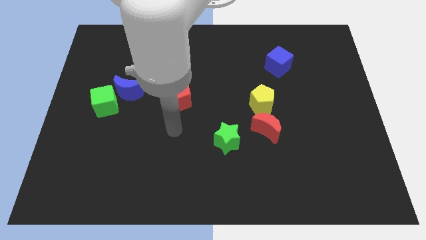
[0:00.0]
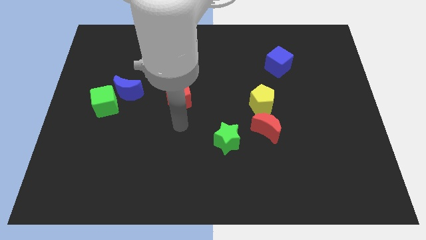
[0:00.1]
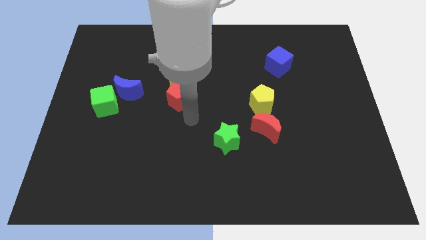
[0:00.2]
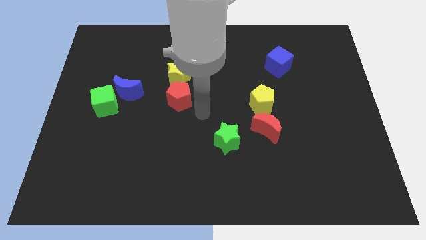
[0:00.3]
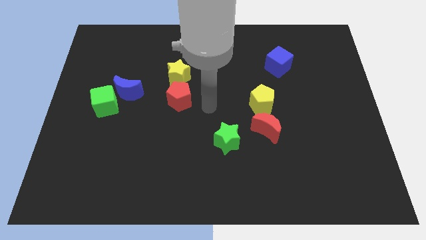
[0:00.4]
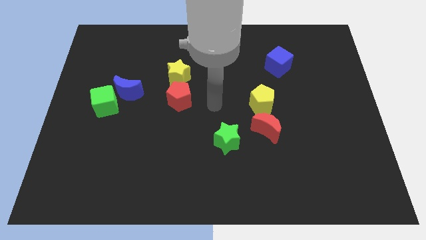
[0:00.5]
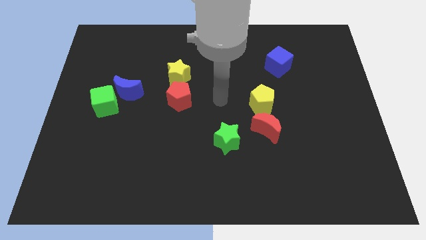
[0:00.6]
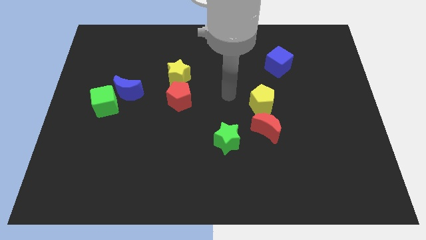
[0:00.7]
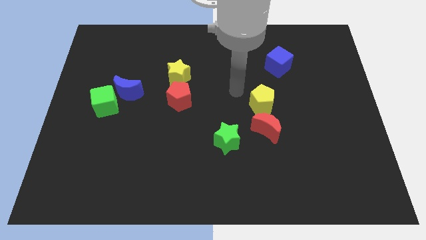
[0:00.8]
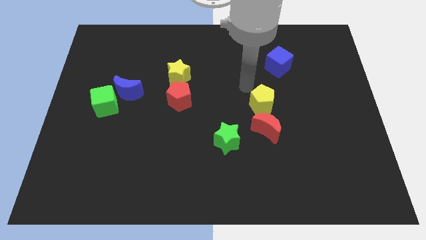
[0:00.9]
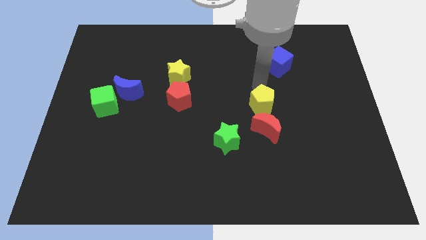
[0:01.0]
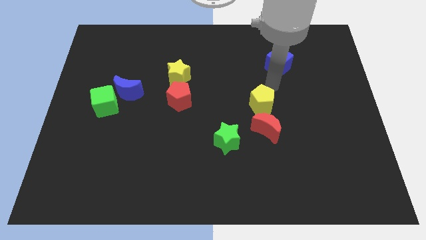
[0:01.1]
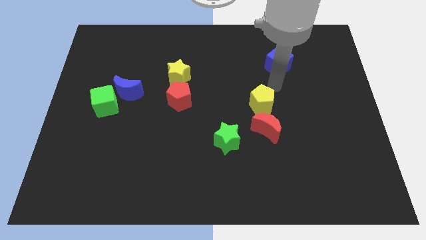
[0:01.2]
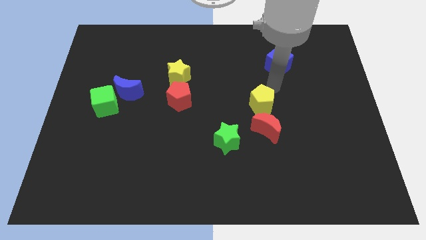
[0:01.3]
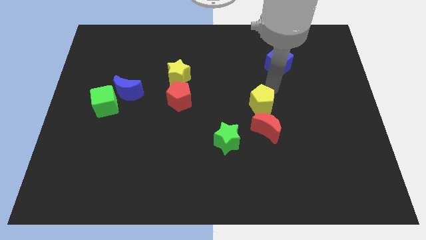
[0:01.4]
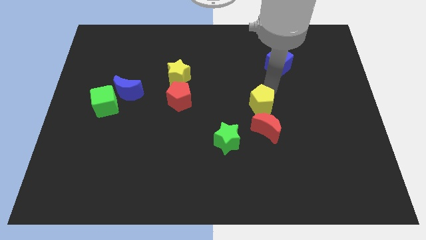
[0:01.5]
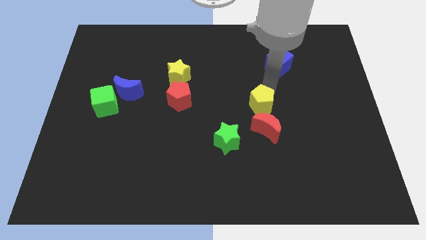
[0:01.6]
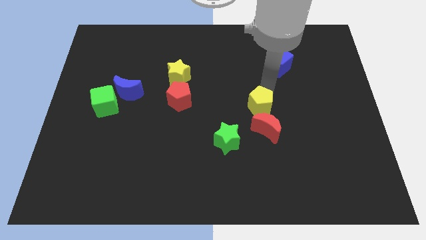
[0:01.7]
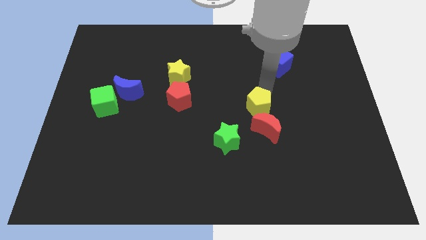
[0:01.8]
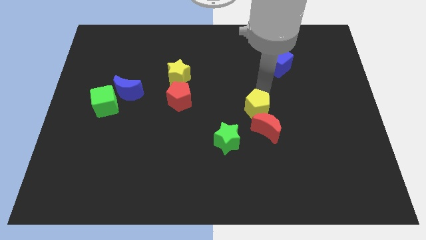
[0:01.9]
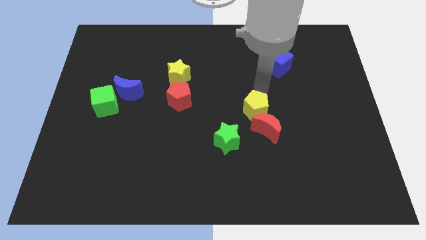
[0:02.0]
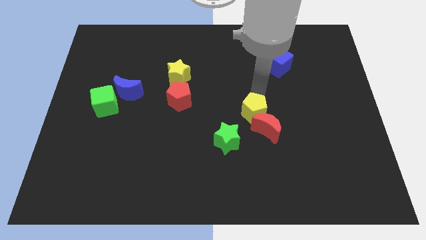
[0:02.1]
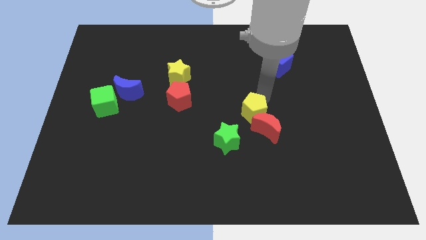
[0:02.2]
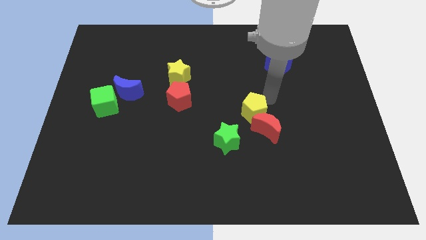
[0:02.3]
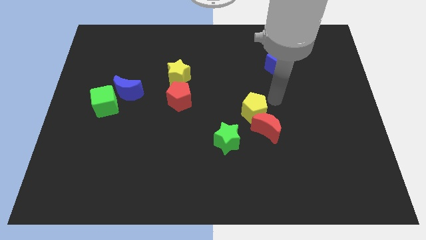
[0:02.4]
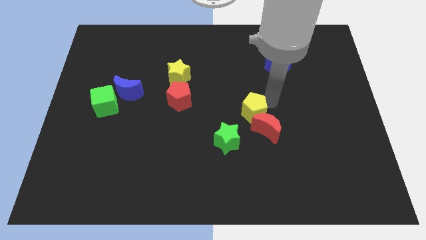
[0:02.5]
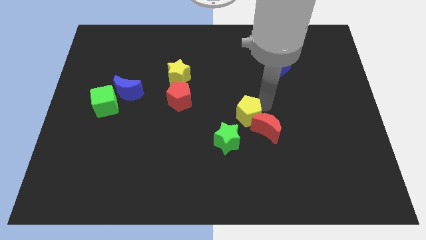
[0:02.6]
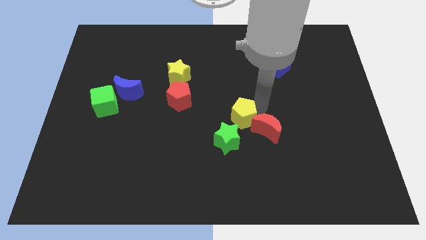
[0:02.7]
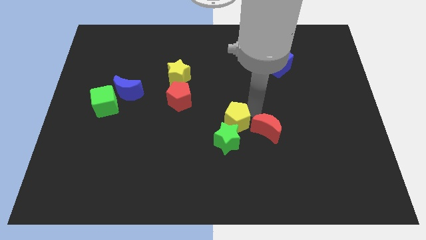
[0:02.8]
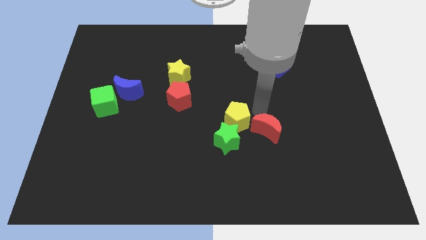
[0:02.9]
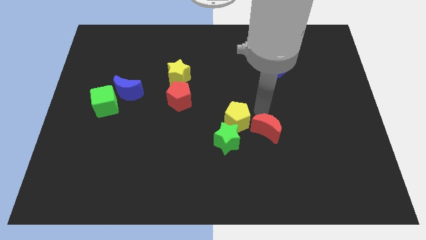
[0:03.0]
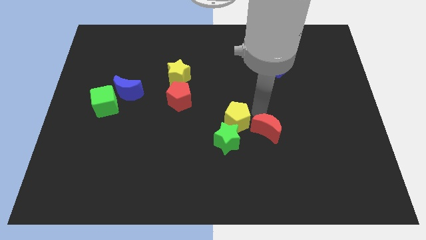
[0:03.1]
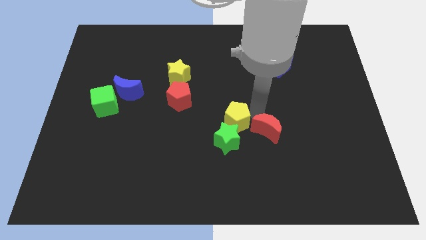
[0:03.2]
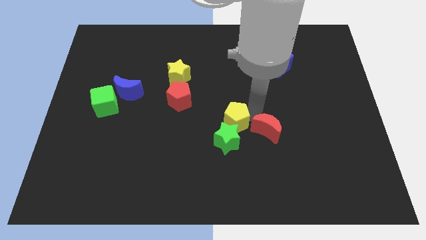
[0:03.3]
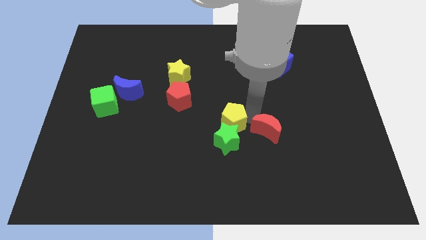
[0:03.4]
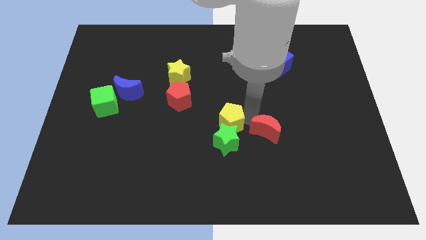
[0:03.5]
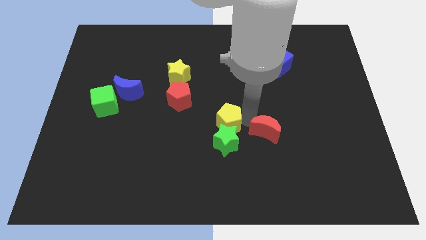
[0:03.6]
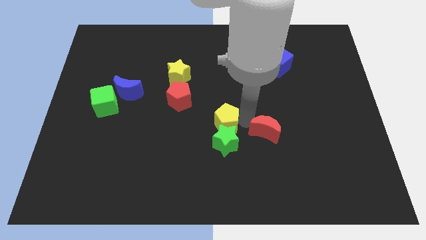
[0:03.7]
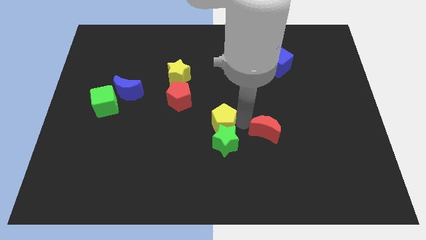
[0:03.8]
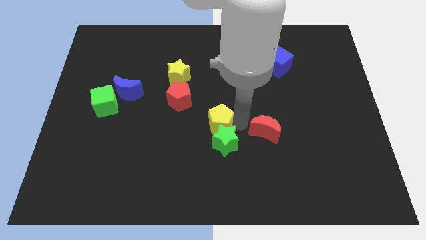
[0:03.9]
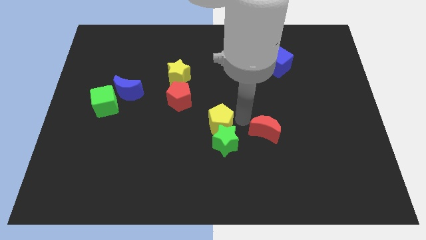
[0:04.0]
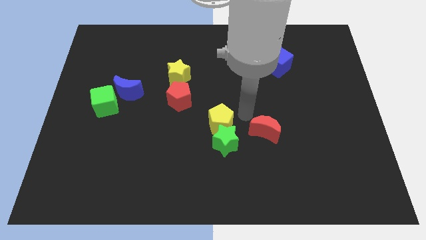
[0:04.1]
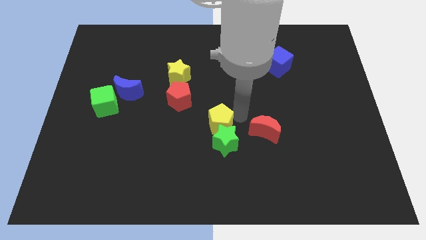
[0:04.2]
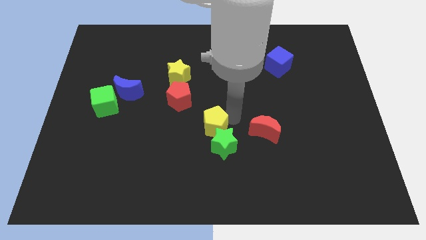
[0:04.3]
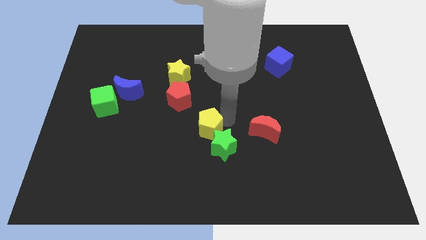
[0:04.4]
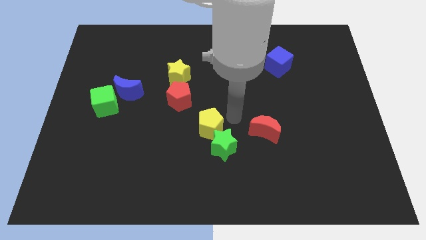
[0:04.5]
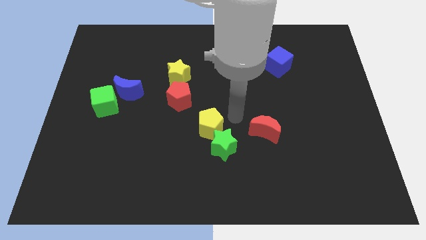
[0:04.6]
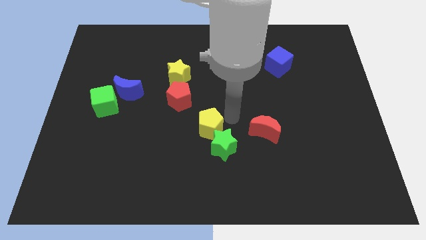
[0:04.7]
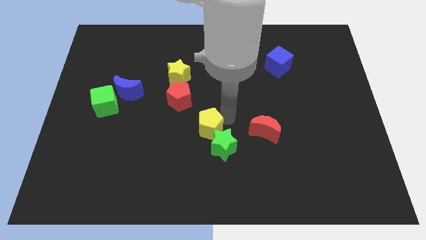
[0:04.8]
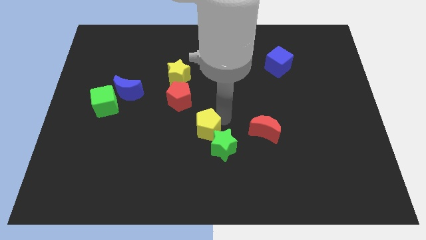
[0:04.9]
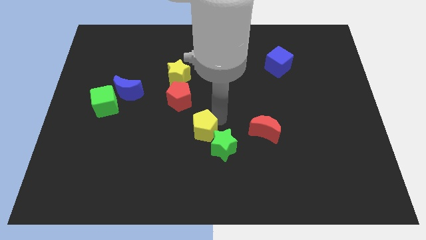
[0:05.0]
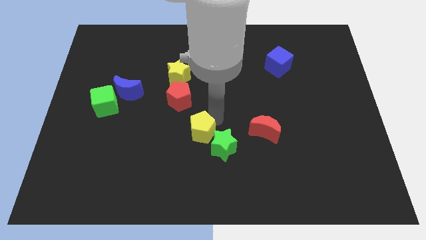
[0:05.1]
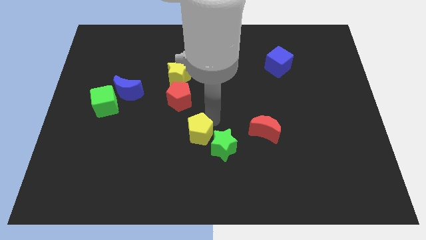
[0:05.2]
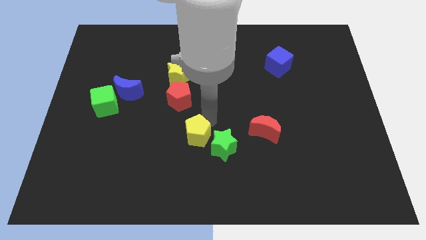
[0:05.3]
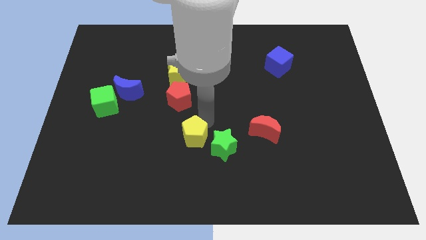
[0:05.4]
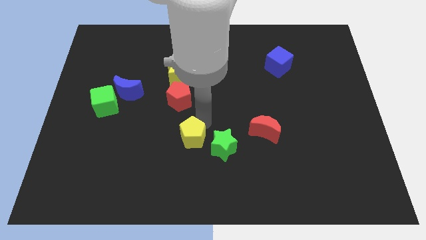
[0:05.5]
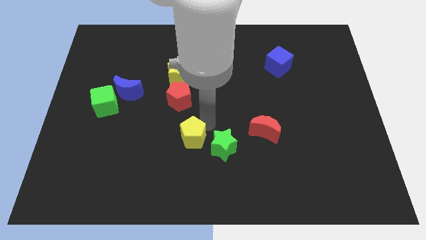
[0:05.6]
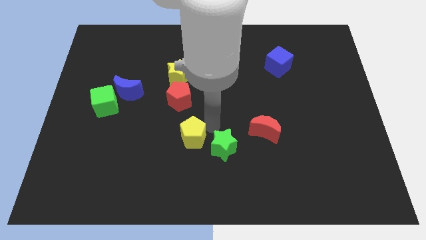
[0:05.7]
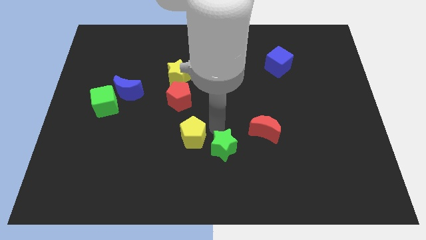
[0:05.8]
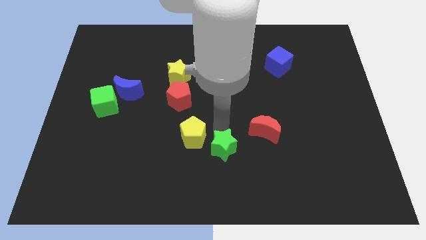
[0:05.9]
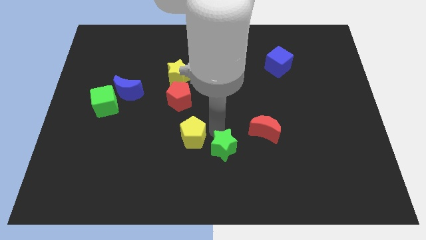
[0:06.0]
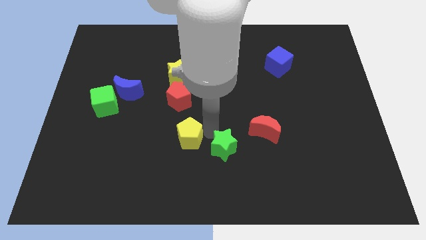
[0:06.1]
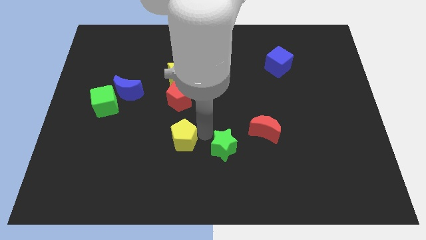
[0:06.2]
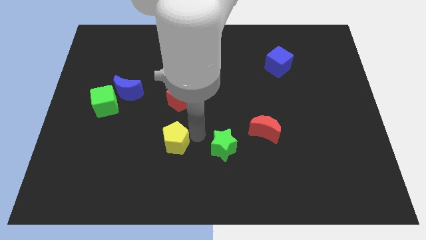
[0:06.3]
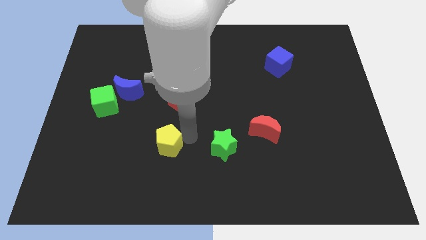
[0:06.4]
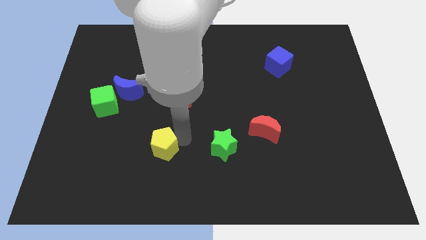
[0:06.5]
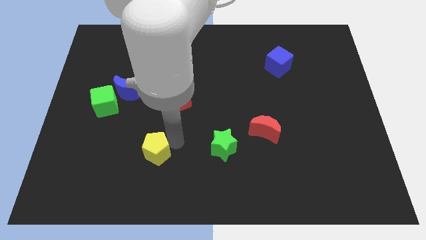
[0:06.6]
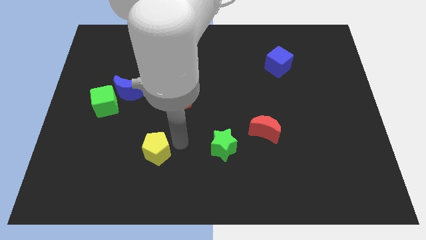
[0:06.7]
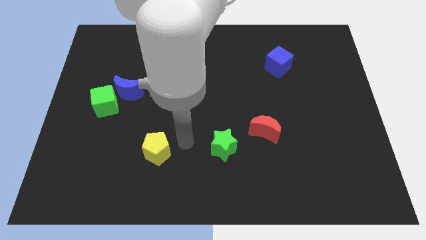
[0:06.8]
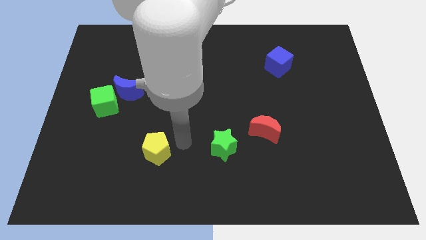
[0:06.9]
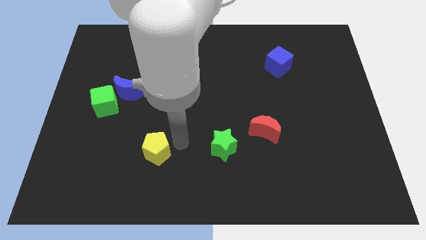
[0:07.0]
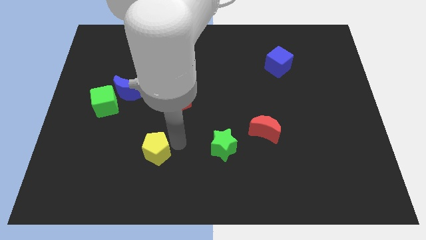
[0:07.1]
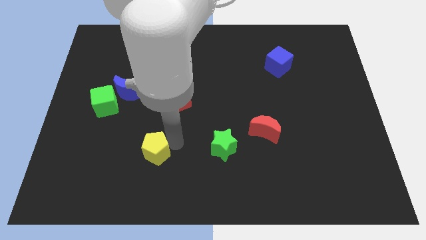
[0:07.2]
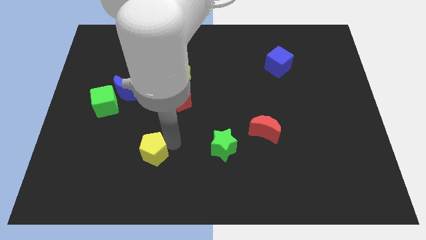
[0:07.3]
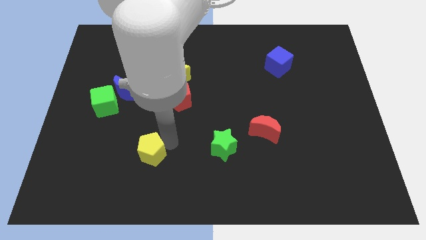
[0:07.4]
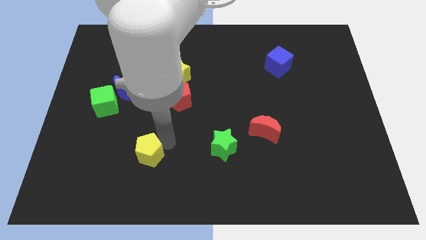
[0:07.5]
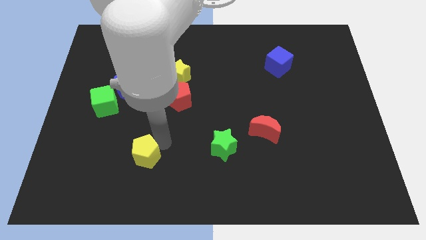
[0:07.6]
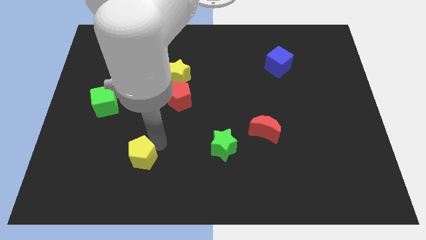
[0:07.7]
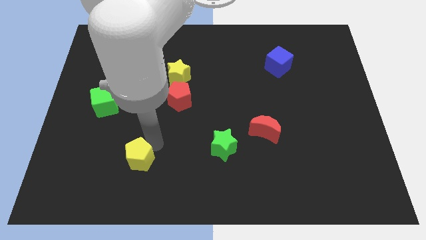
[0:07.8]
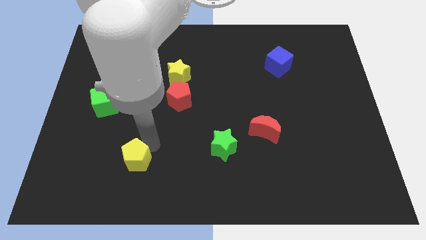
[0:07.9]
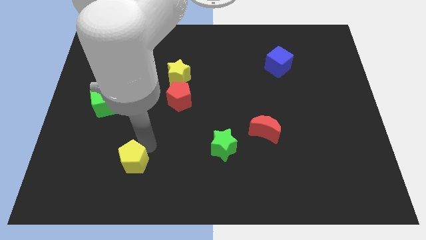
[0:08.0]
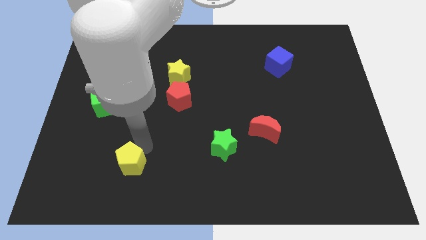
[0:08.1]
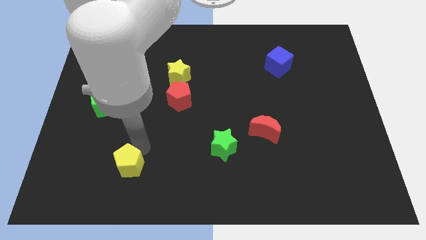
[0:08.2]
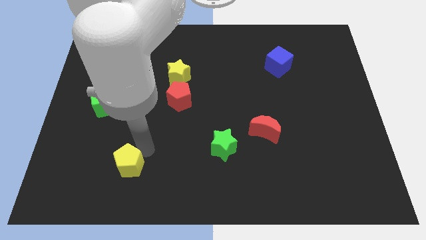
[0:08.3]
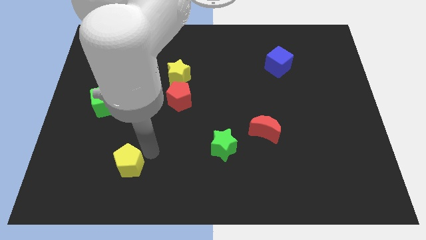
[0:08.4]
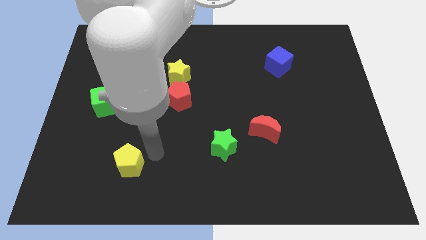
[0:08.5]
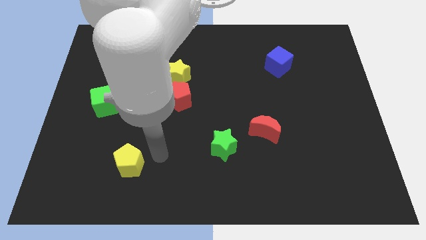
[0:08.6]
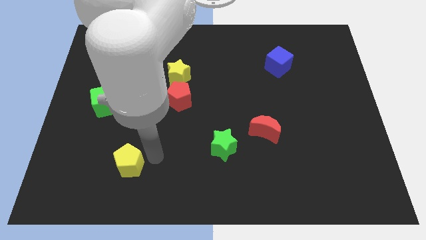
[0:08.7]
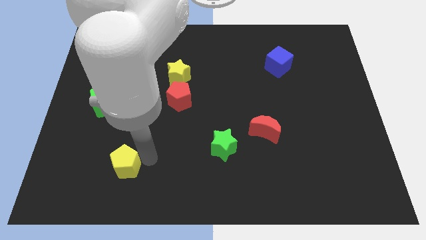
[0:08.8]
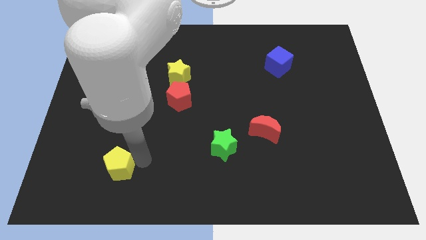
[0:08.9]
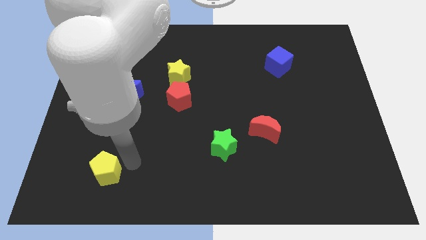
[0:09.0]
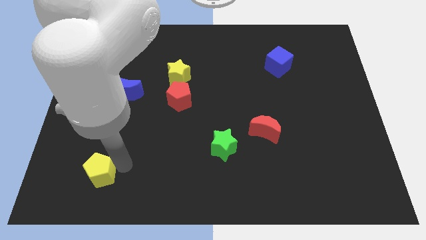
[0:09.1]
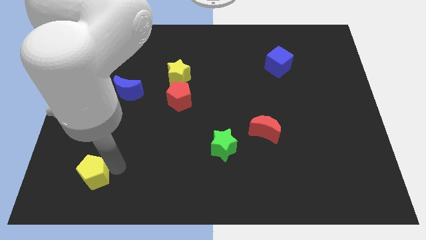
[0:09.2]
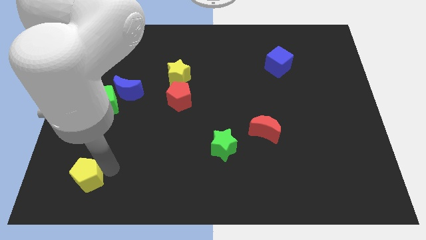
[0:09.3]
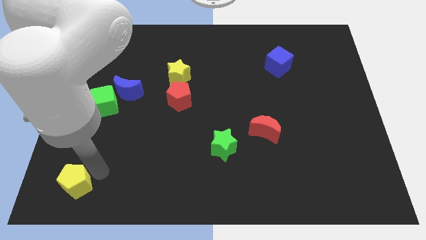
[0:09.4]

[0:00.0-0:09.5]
slide the yellow pentagon to the bottom left
